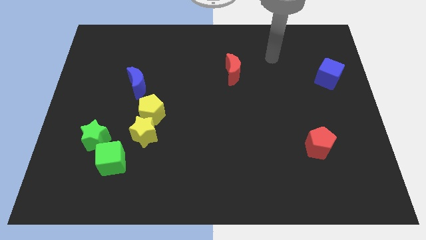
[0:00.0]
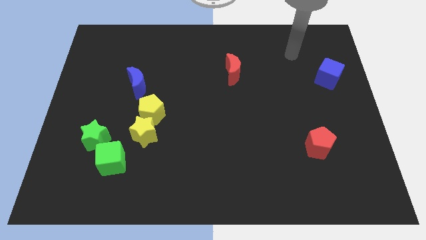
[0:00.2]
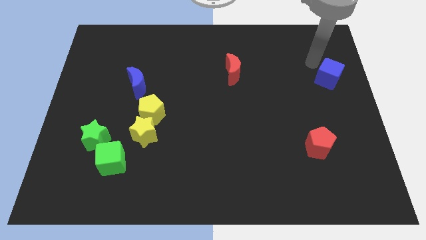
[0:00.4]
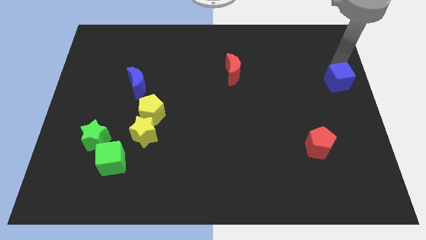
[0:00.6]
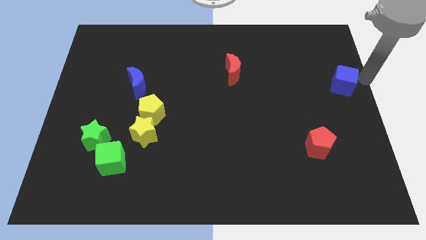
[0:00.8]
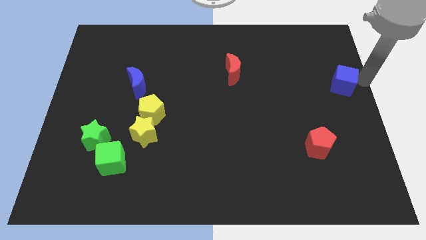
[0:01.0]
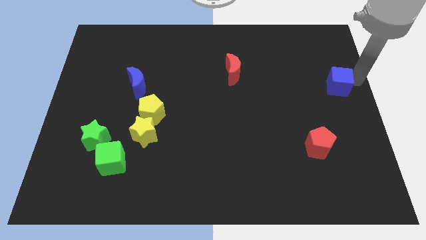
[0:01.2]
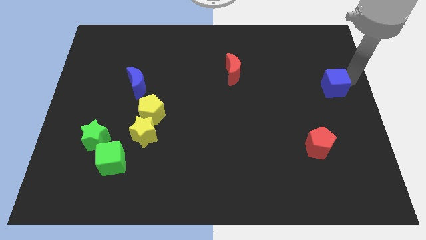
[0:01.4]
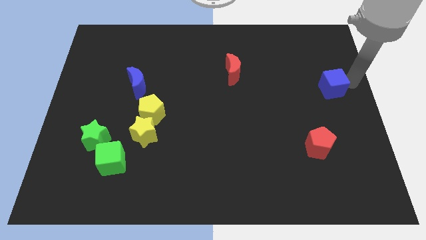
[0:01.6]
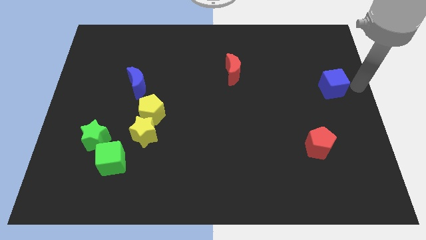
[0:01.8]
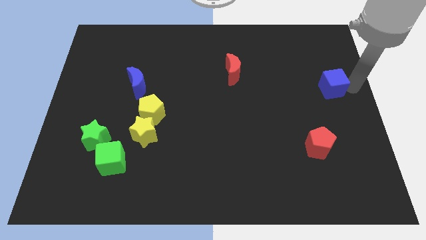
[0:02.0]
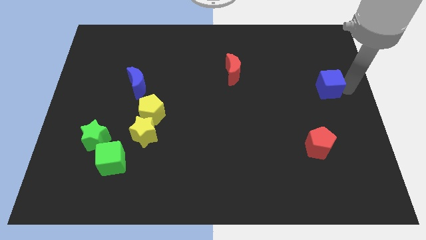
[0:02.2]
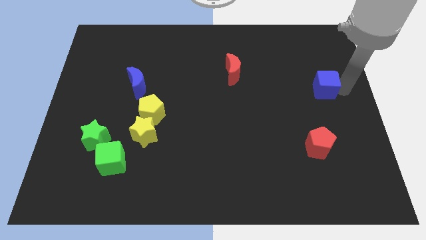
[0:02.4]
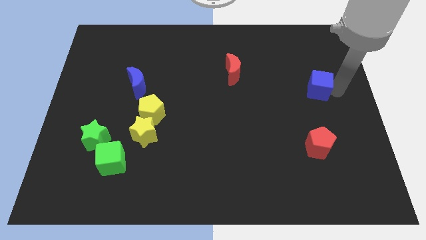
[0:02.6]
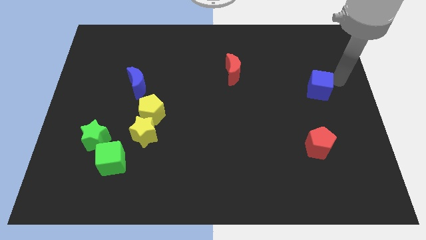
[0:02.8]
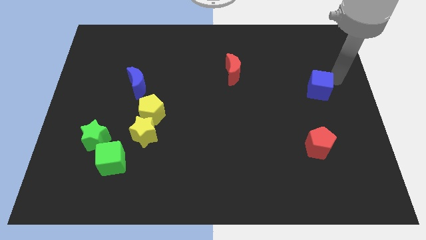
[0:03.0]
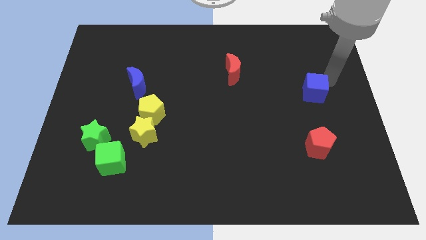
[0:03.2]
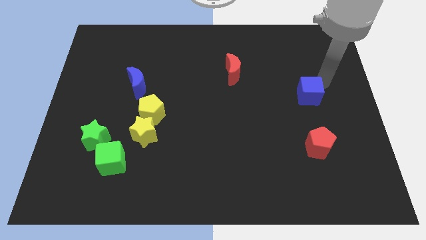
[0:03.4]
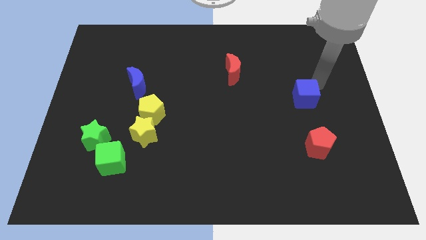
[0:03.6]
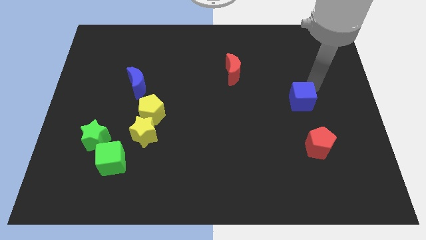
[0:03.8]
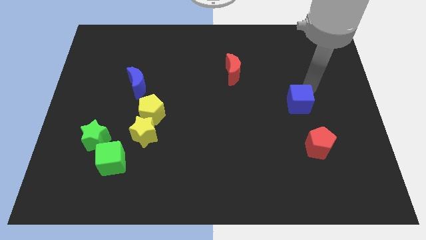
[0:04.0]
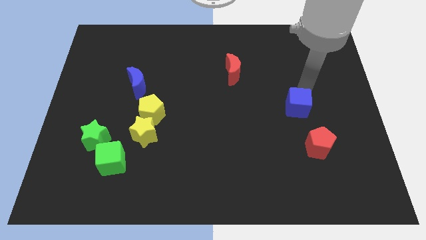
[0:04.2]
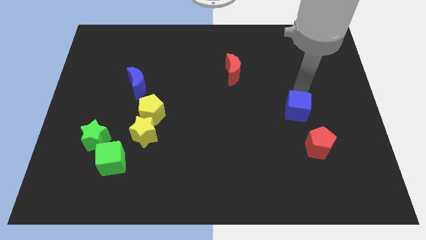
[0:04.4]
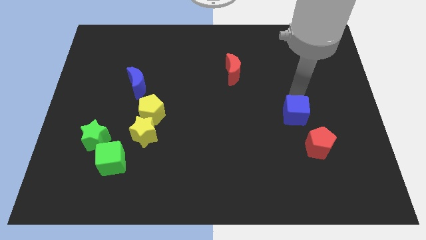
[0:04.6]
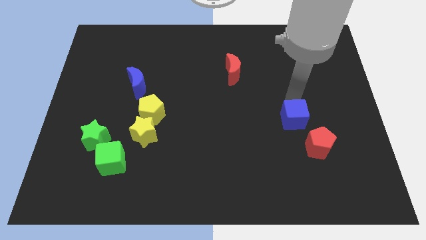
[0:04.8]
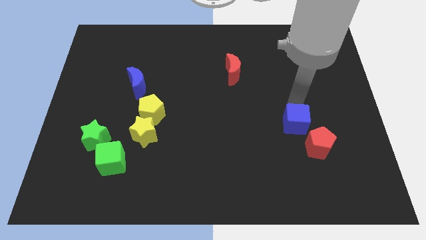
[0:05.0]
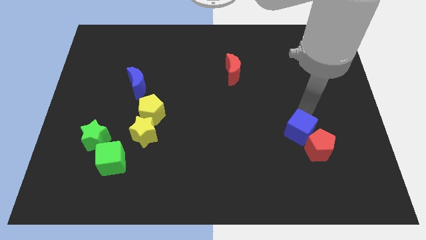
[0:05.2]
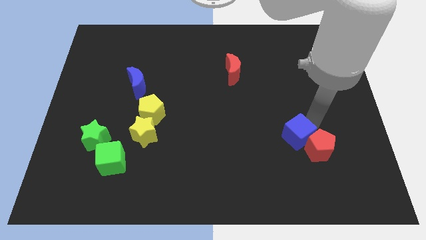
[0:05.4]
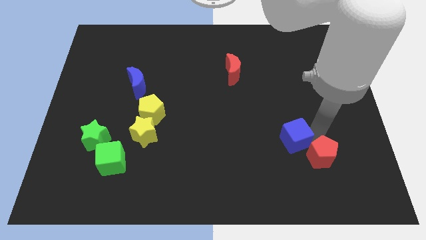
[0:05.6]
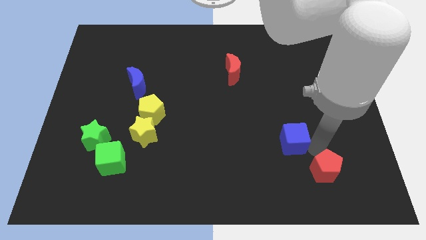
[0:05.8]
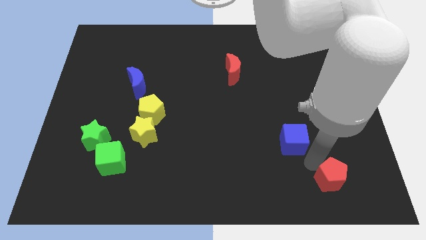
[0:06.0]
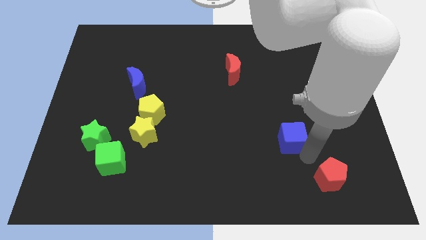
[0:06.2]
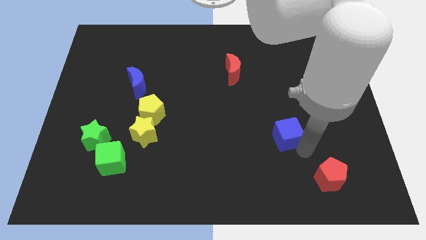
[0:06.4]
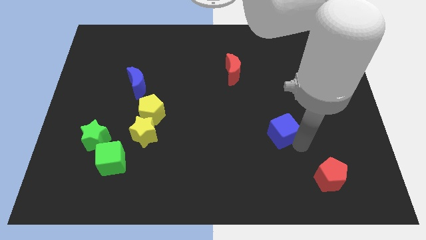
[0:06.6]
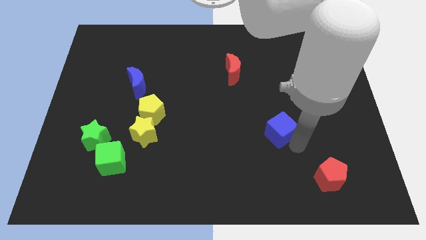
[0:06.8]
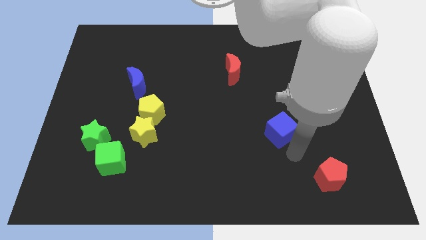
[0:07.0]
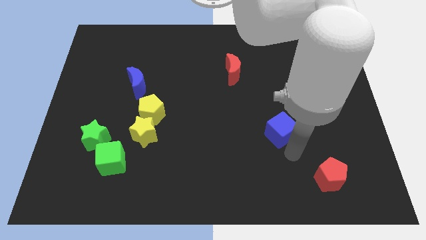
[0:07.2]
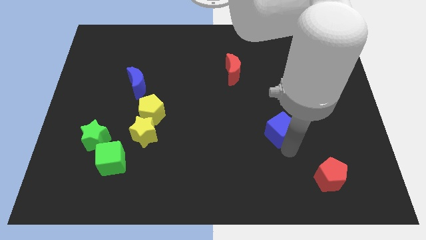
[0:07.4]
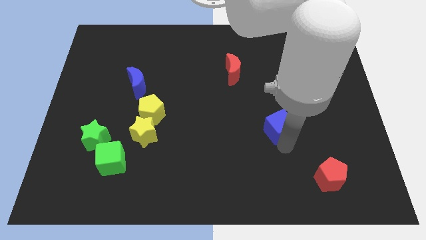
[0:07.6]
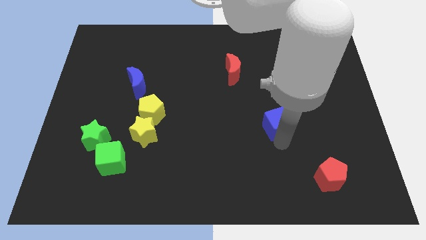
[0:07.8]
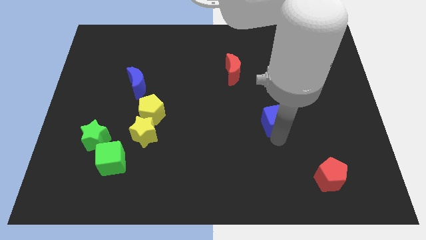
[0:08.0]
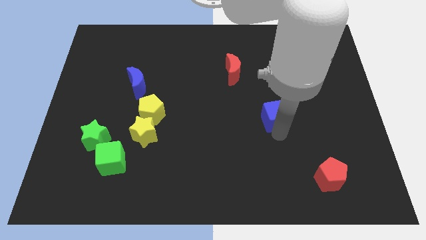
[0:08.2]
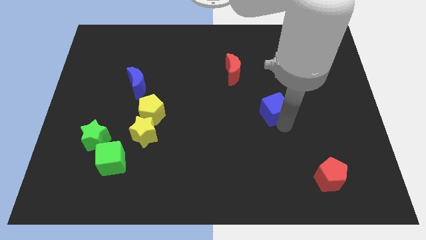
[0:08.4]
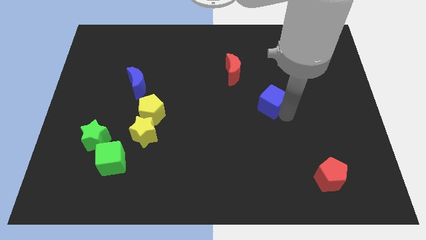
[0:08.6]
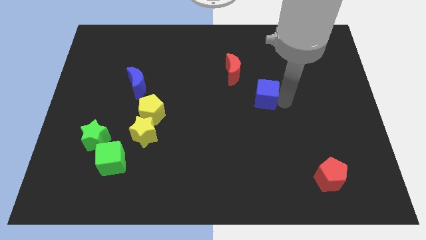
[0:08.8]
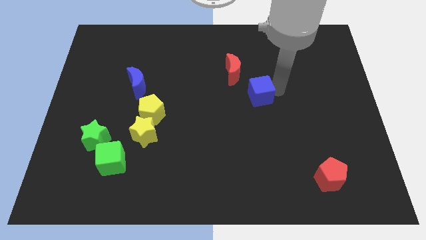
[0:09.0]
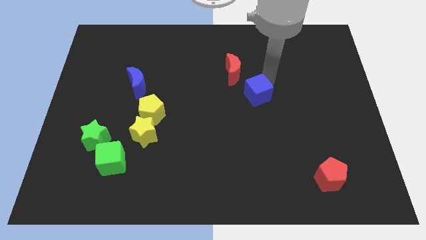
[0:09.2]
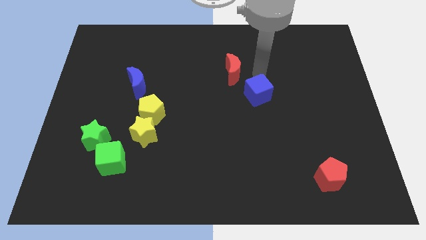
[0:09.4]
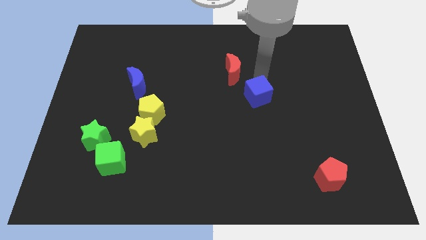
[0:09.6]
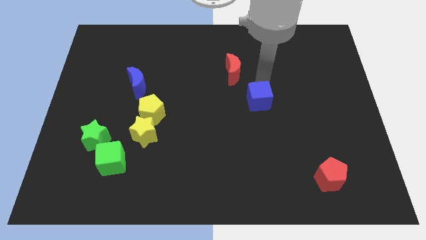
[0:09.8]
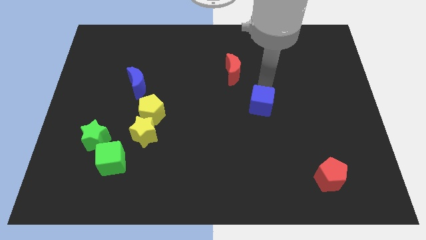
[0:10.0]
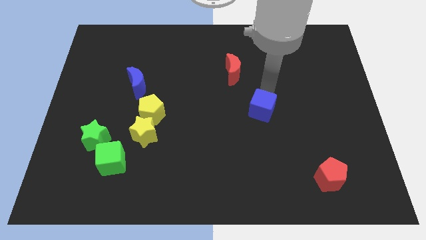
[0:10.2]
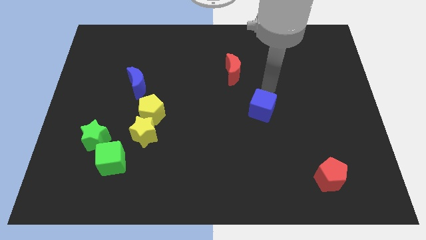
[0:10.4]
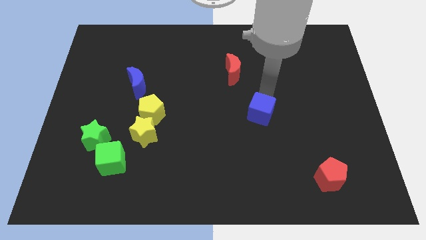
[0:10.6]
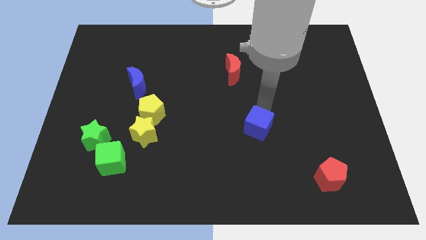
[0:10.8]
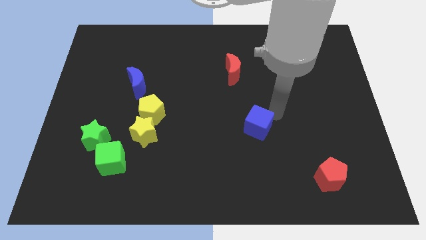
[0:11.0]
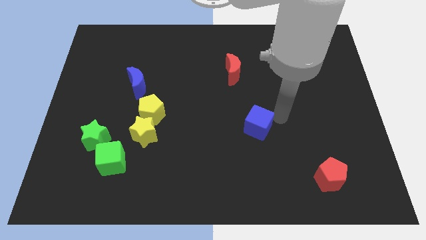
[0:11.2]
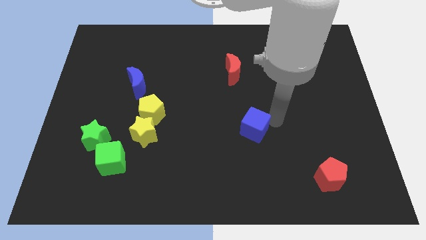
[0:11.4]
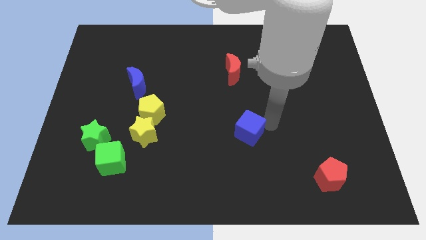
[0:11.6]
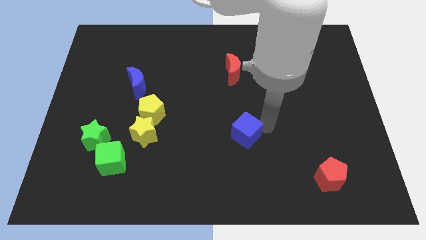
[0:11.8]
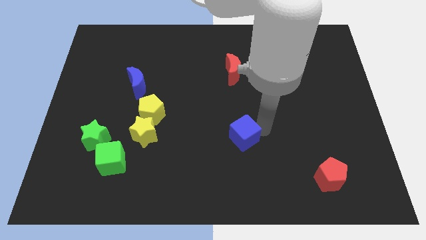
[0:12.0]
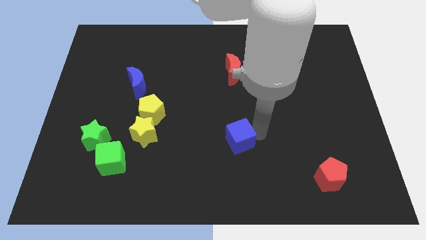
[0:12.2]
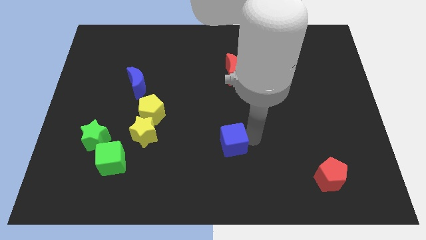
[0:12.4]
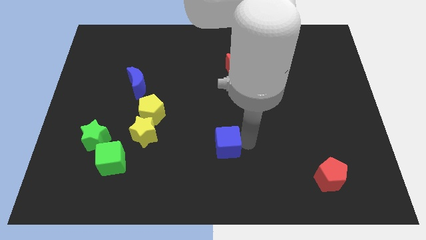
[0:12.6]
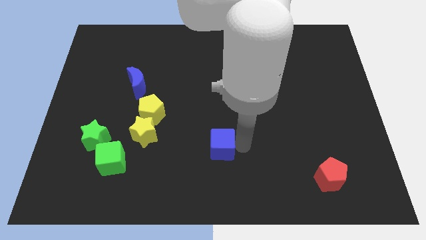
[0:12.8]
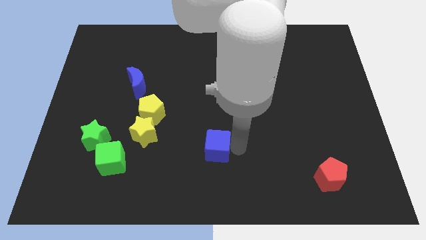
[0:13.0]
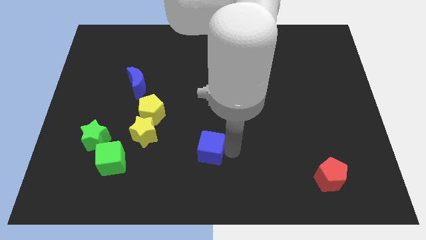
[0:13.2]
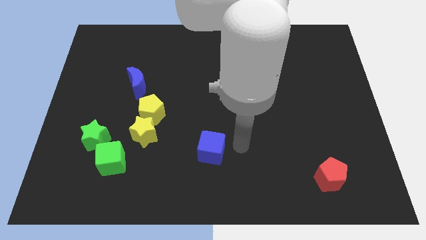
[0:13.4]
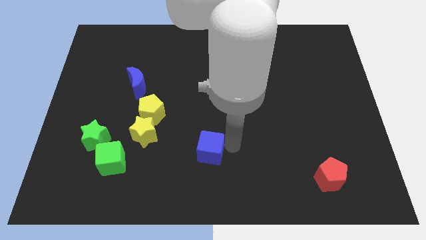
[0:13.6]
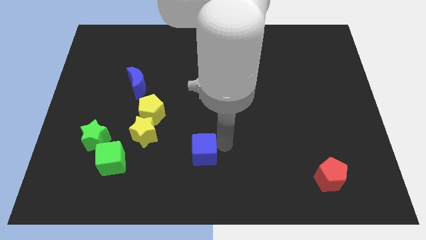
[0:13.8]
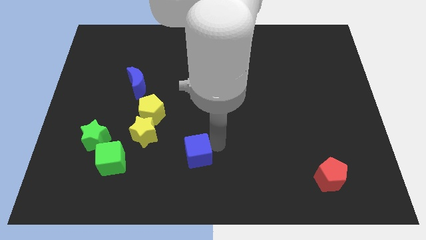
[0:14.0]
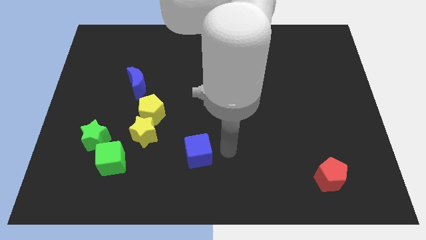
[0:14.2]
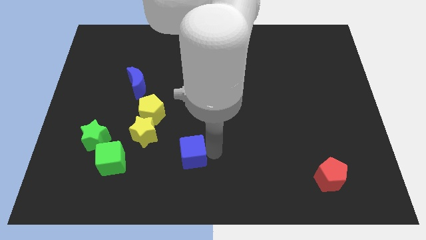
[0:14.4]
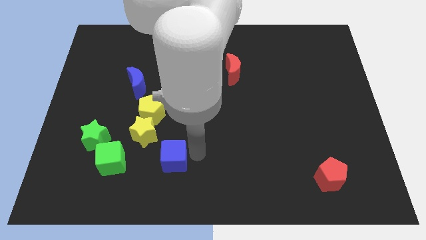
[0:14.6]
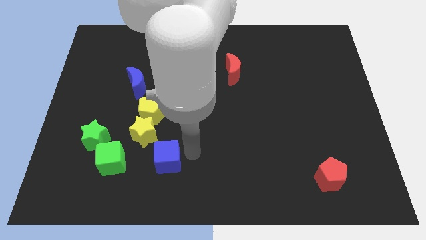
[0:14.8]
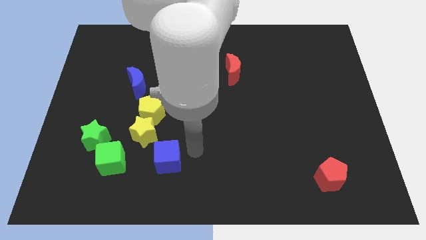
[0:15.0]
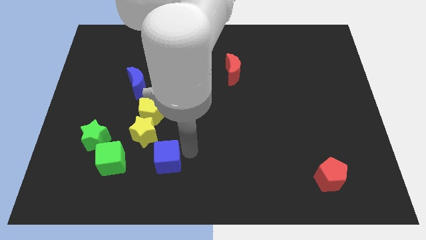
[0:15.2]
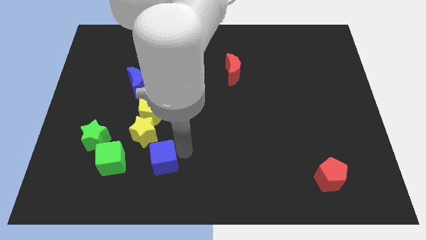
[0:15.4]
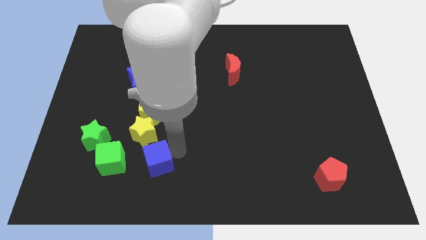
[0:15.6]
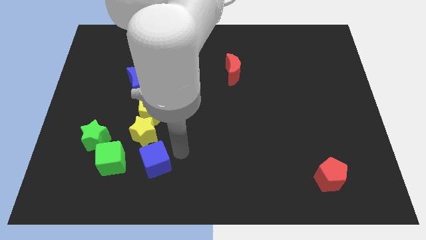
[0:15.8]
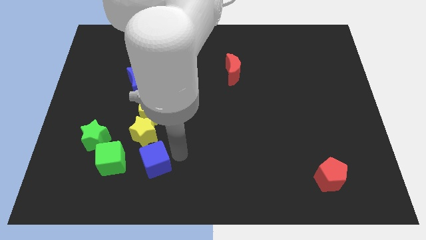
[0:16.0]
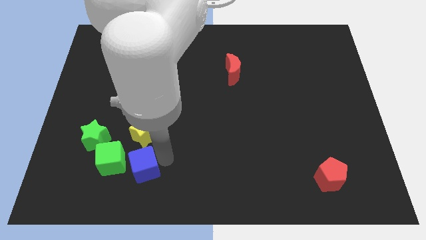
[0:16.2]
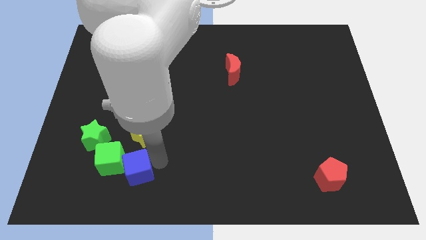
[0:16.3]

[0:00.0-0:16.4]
put the blue cube to the bottom right side of the green star
